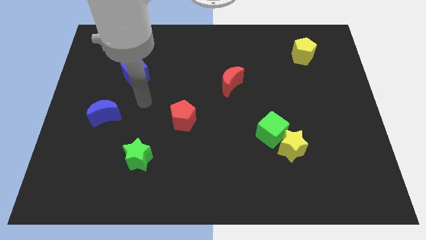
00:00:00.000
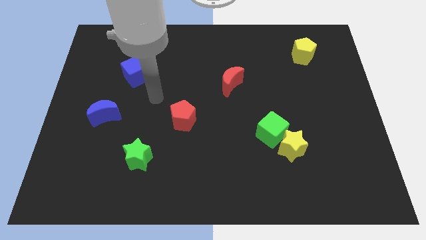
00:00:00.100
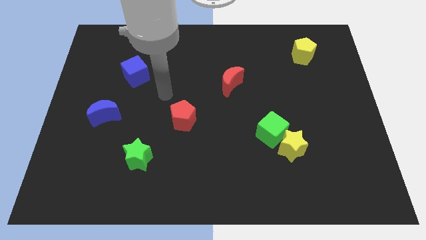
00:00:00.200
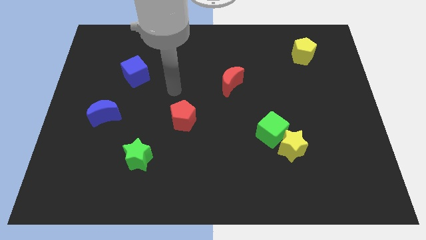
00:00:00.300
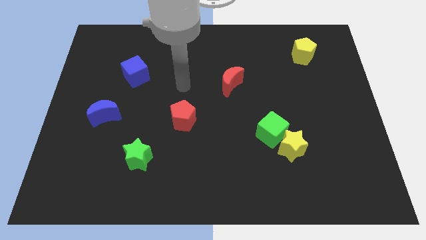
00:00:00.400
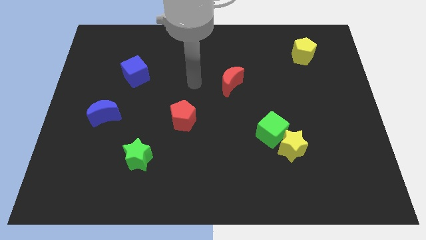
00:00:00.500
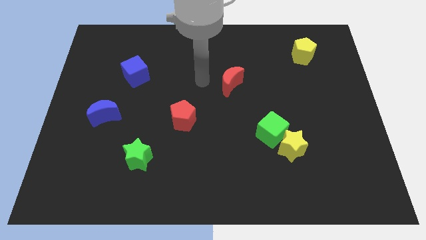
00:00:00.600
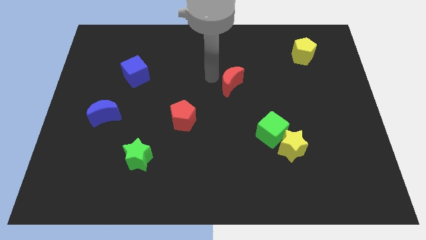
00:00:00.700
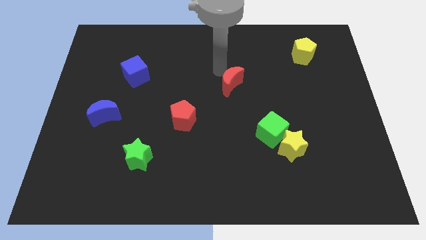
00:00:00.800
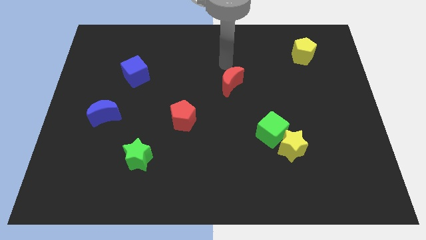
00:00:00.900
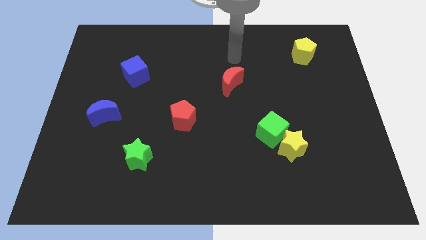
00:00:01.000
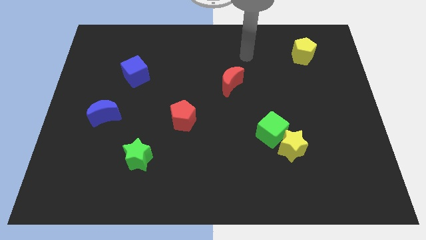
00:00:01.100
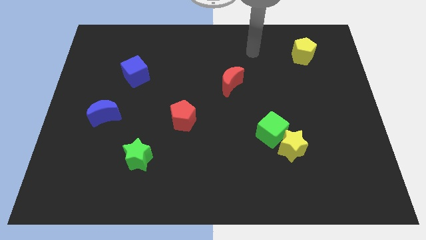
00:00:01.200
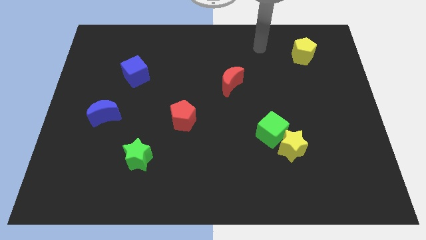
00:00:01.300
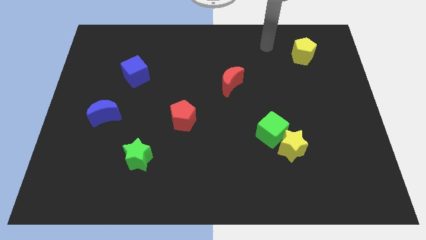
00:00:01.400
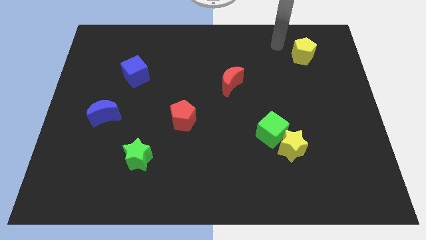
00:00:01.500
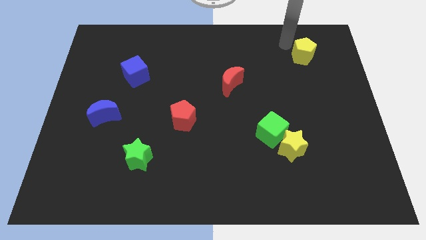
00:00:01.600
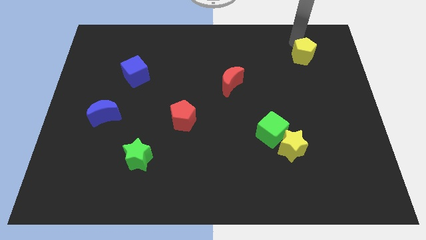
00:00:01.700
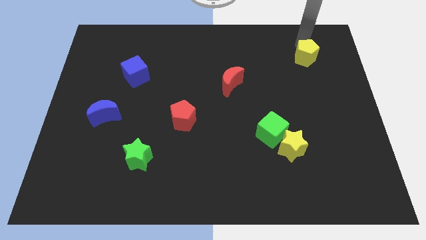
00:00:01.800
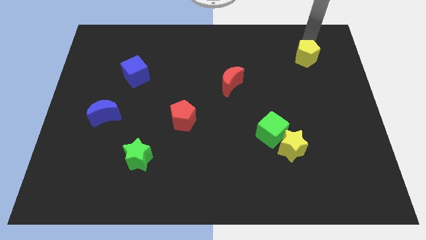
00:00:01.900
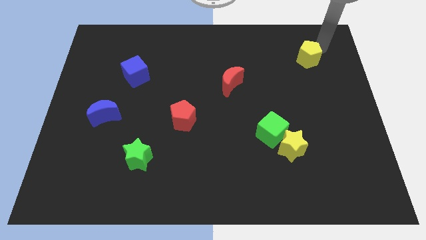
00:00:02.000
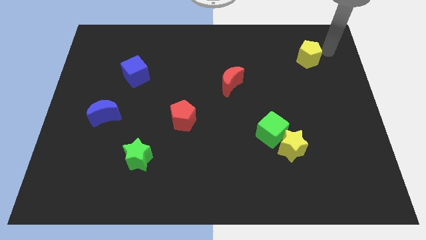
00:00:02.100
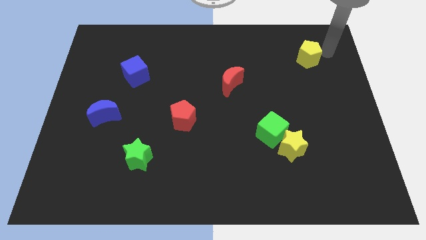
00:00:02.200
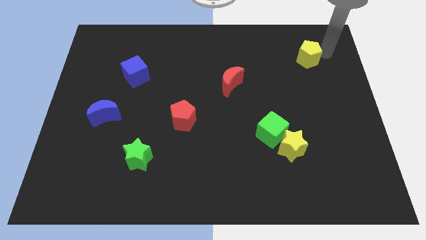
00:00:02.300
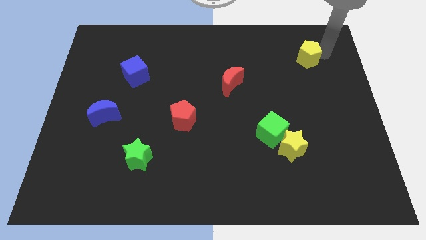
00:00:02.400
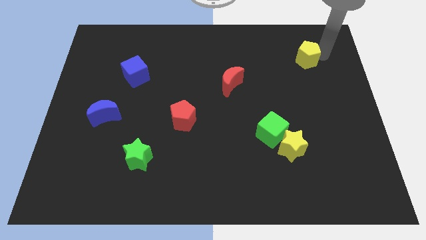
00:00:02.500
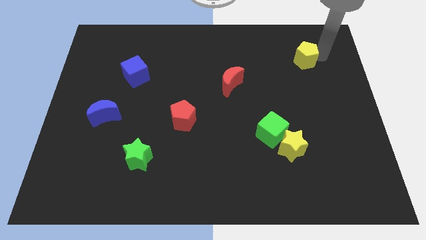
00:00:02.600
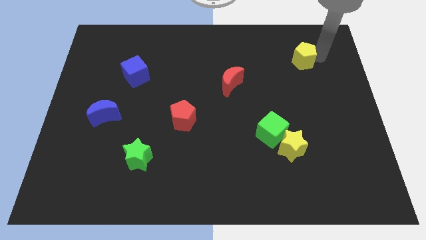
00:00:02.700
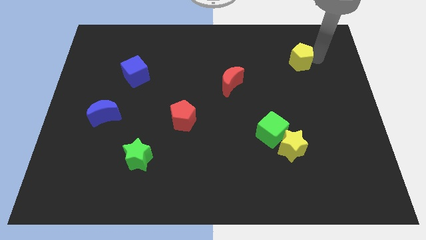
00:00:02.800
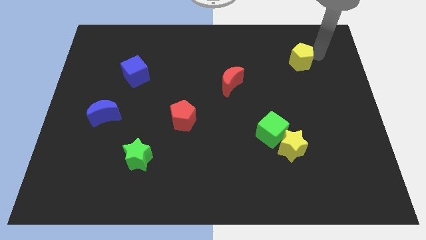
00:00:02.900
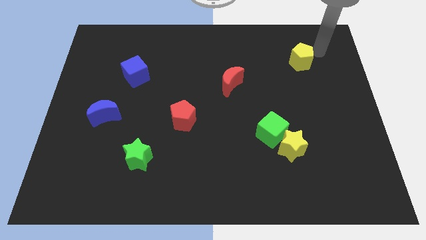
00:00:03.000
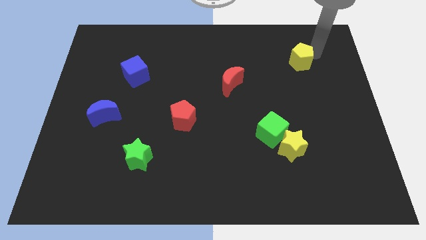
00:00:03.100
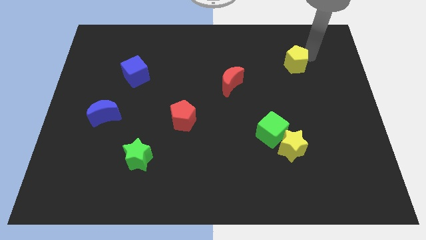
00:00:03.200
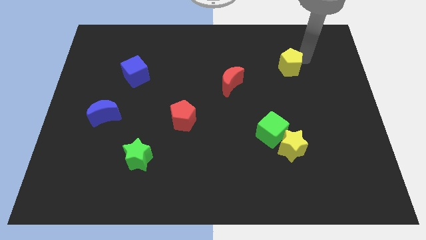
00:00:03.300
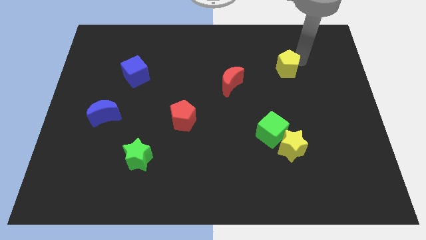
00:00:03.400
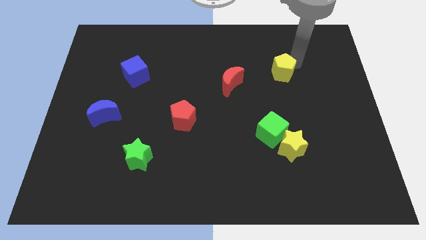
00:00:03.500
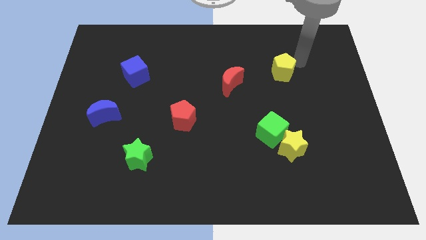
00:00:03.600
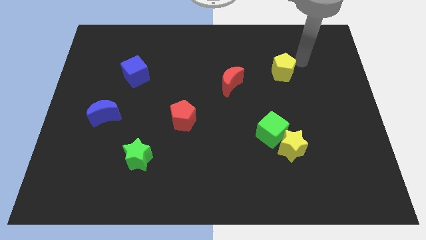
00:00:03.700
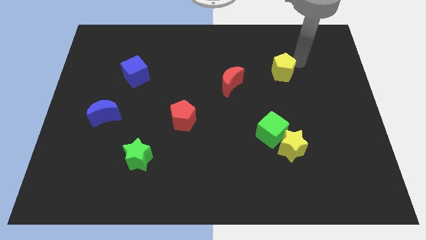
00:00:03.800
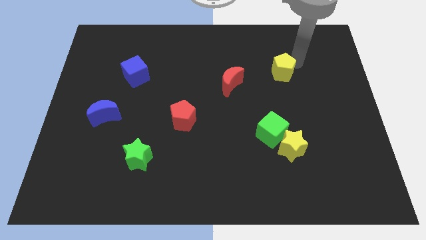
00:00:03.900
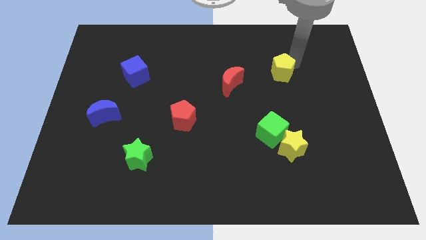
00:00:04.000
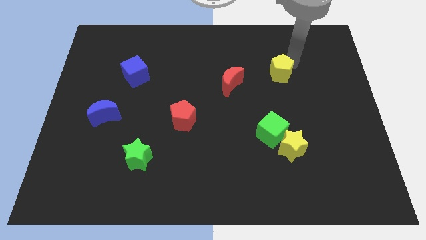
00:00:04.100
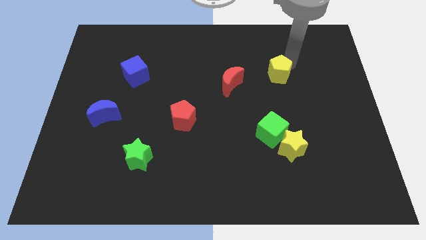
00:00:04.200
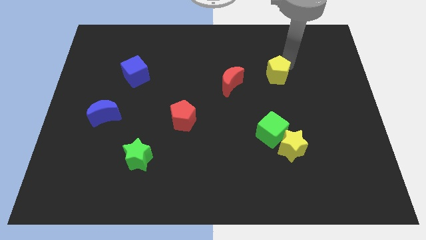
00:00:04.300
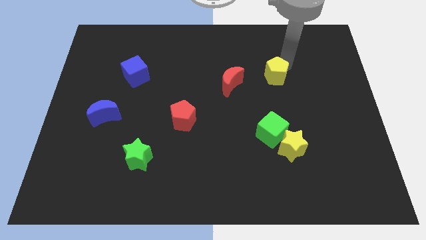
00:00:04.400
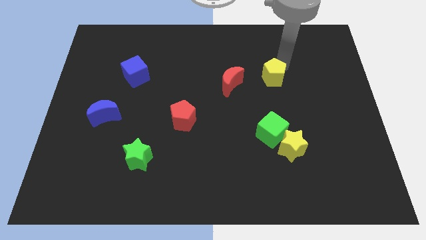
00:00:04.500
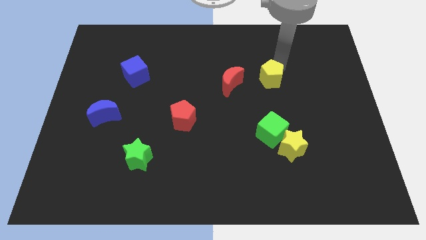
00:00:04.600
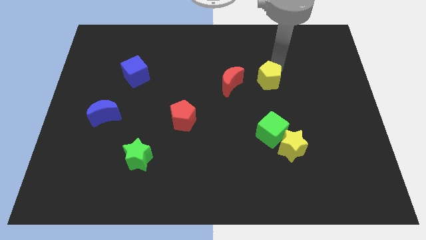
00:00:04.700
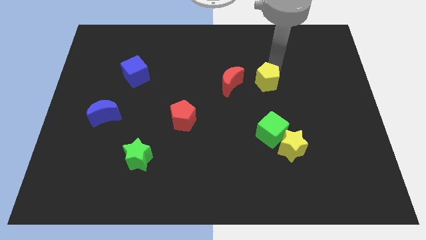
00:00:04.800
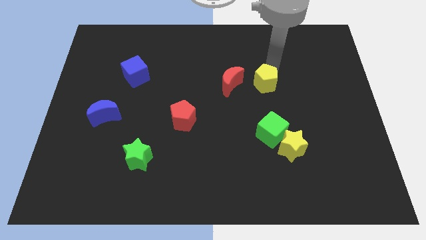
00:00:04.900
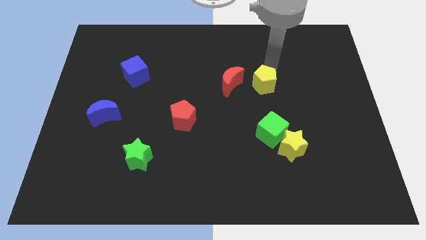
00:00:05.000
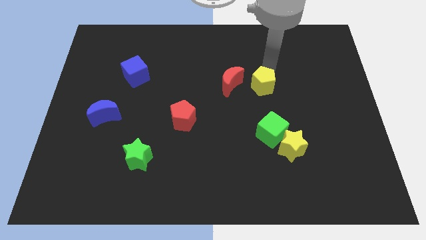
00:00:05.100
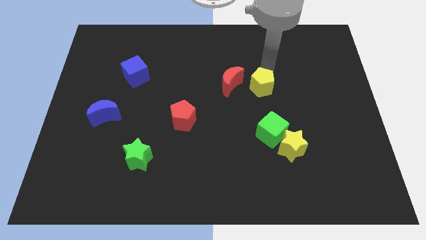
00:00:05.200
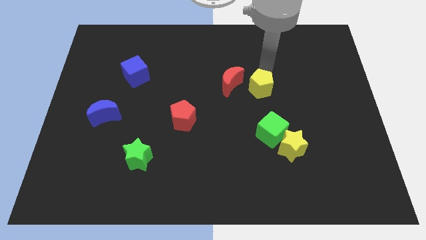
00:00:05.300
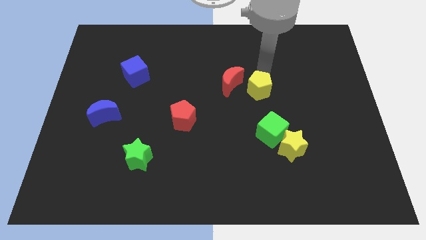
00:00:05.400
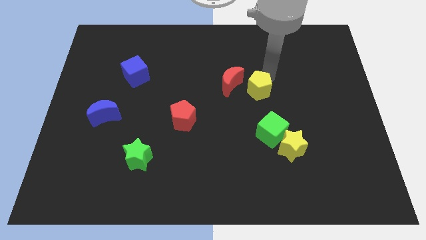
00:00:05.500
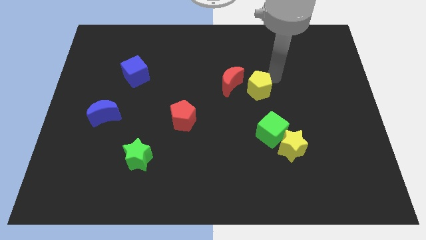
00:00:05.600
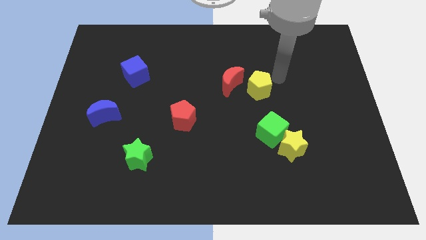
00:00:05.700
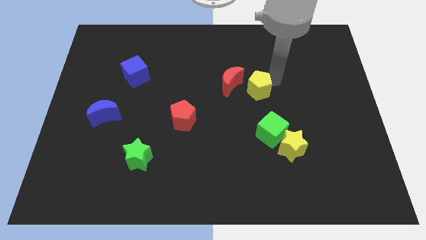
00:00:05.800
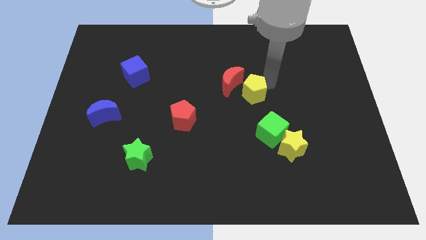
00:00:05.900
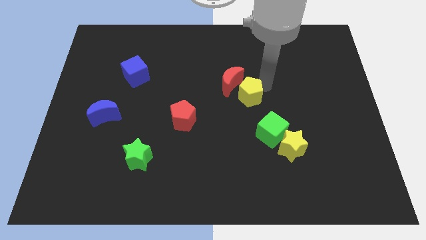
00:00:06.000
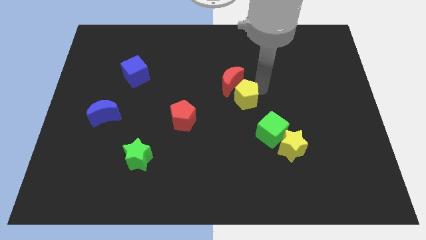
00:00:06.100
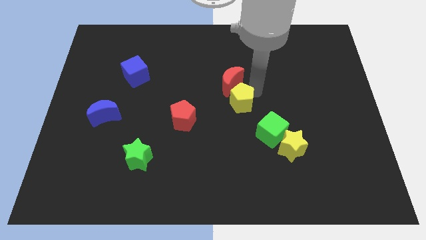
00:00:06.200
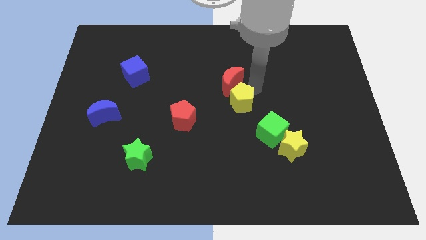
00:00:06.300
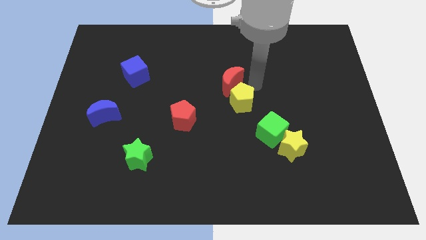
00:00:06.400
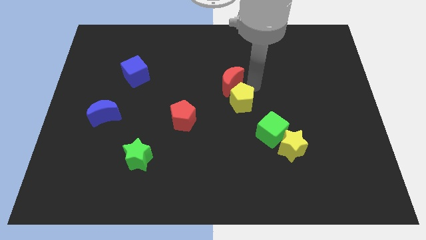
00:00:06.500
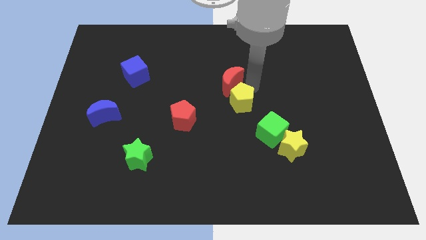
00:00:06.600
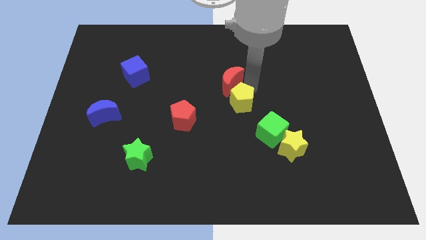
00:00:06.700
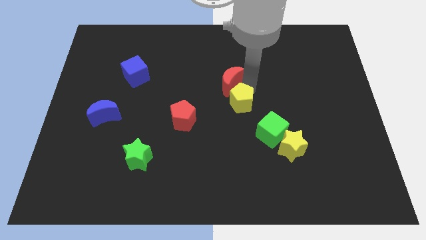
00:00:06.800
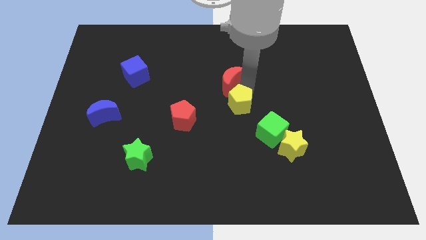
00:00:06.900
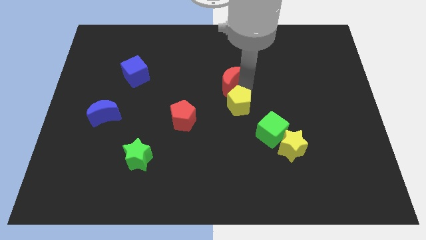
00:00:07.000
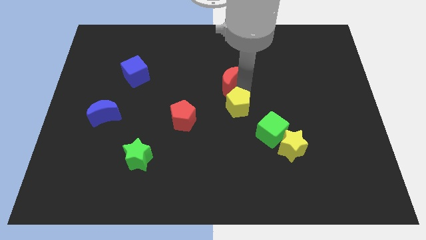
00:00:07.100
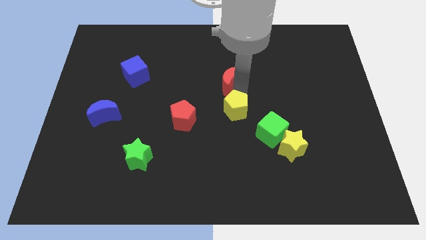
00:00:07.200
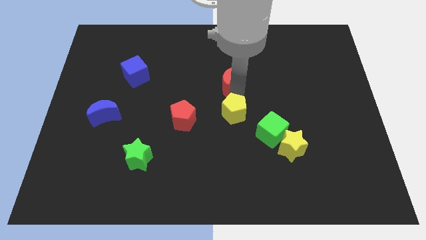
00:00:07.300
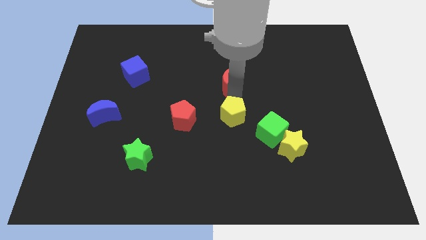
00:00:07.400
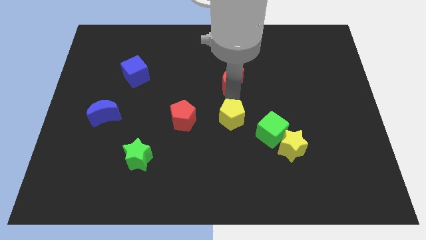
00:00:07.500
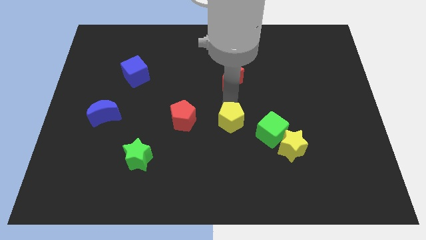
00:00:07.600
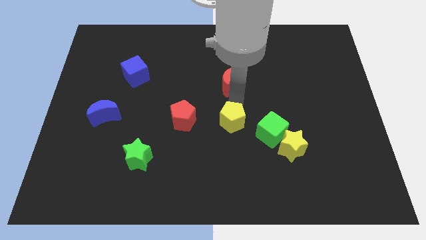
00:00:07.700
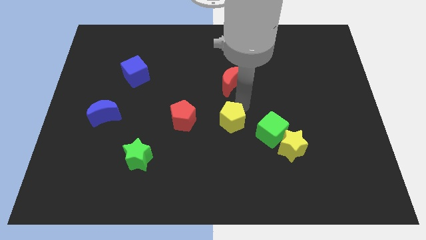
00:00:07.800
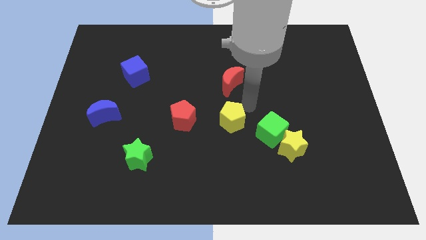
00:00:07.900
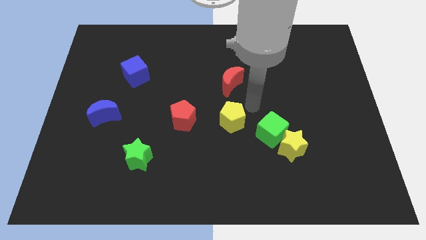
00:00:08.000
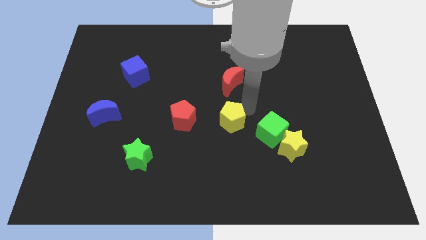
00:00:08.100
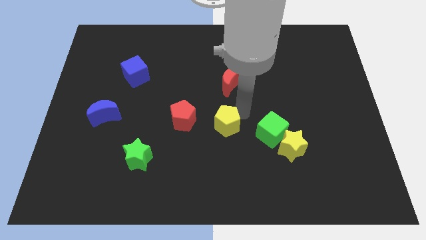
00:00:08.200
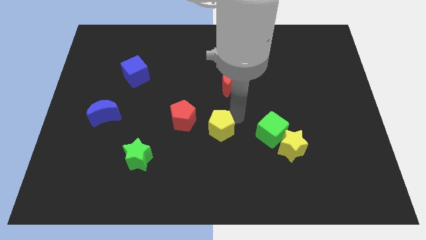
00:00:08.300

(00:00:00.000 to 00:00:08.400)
push the yellow pentagon diagonally down and to the right of the red pentagon
